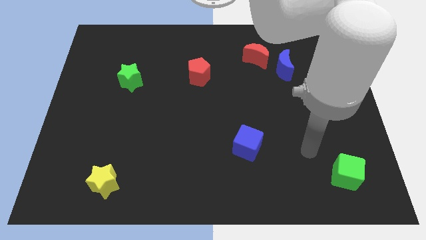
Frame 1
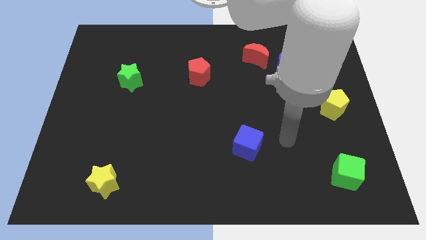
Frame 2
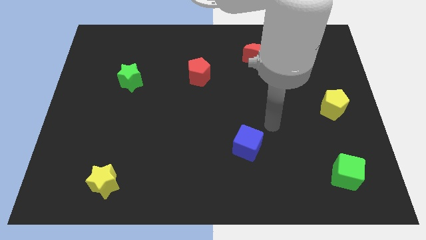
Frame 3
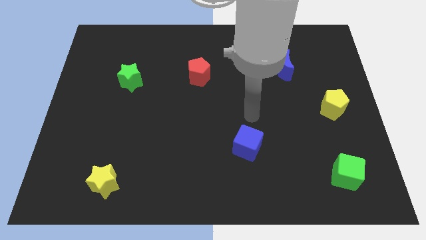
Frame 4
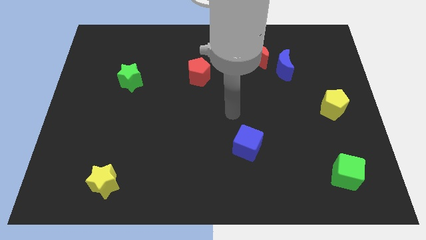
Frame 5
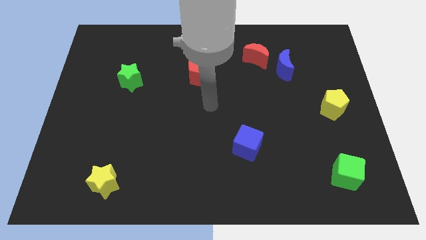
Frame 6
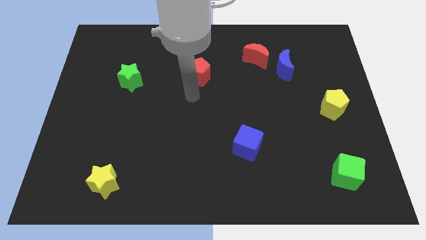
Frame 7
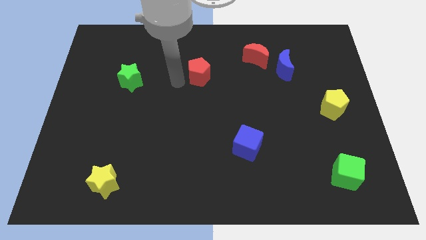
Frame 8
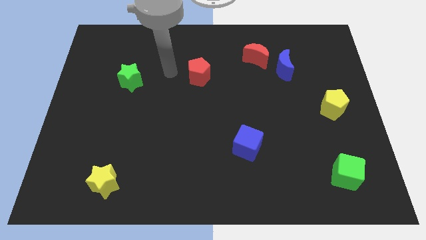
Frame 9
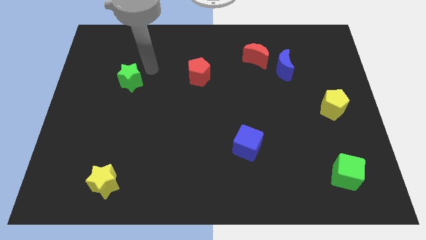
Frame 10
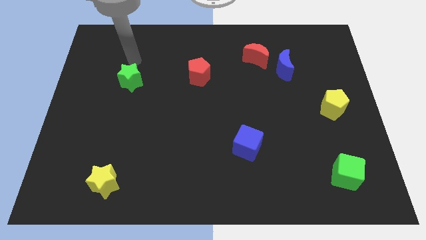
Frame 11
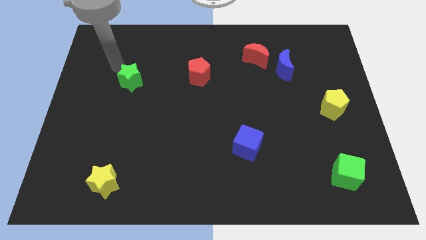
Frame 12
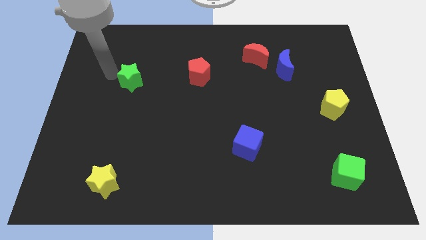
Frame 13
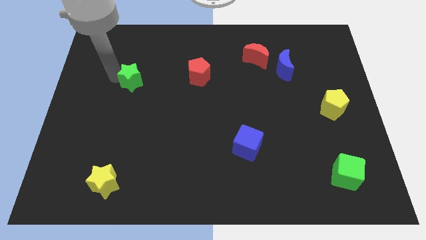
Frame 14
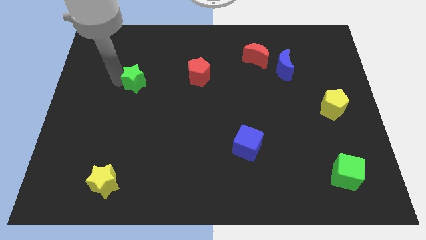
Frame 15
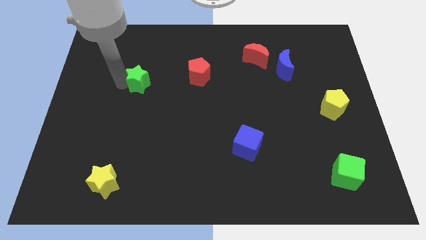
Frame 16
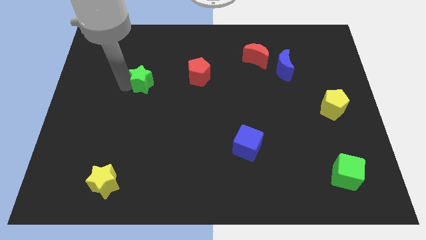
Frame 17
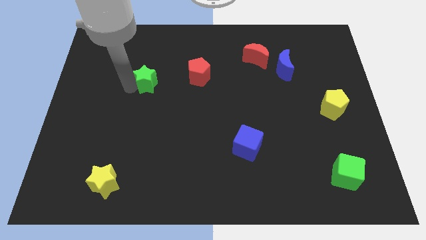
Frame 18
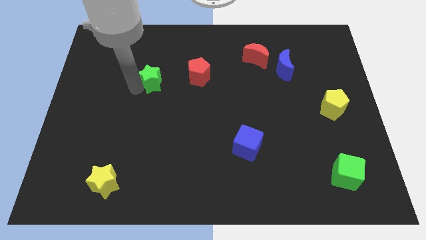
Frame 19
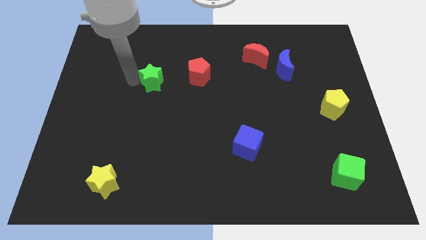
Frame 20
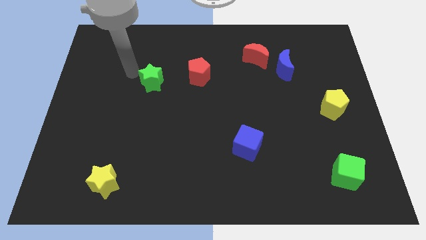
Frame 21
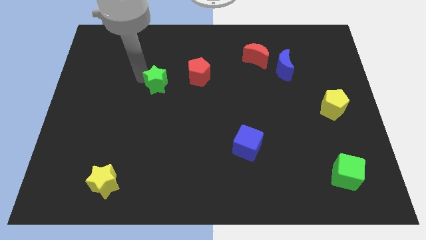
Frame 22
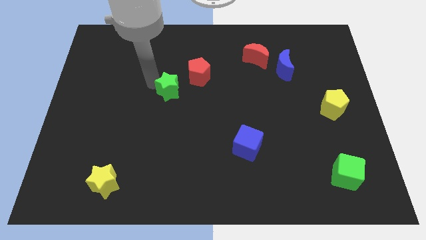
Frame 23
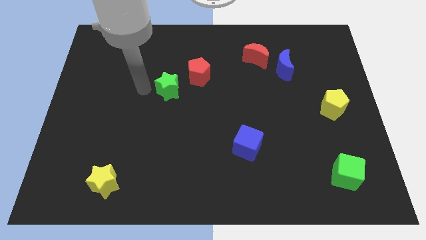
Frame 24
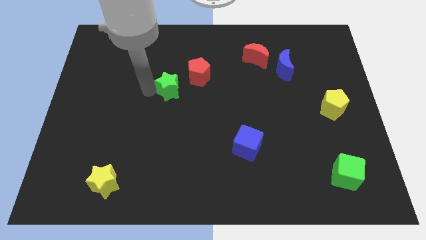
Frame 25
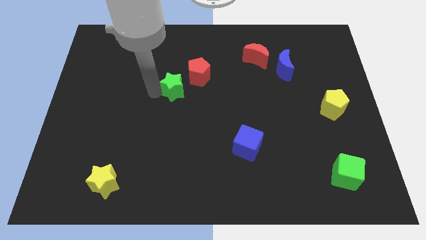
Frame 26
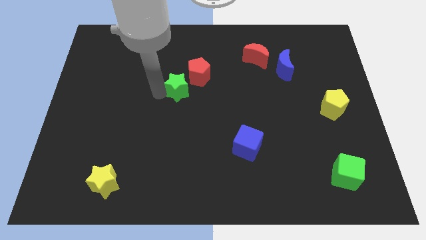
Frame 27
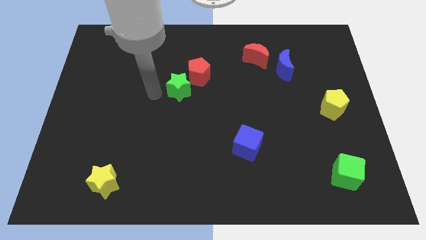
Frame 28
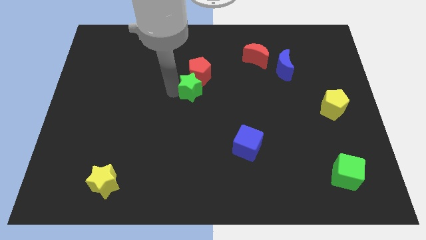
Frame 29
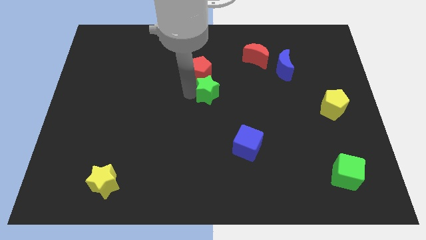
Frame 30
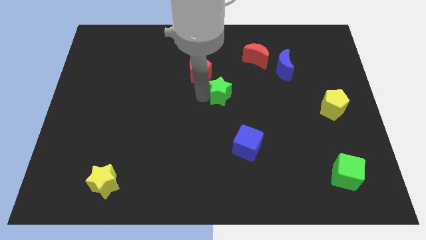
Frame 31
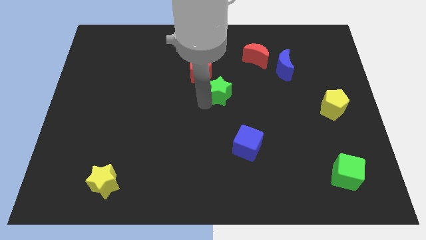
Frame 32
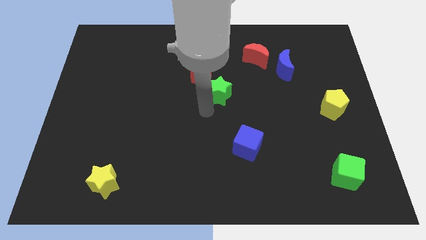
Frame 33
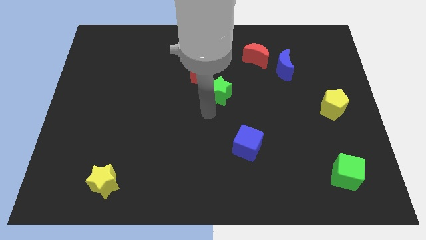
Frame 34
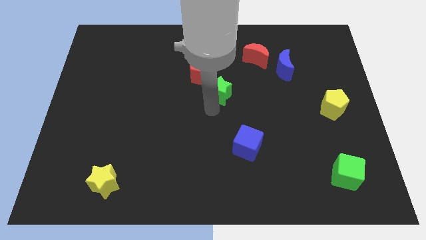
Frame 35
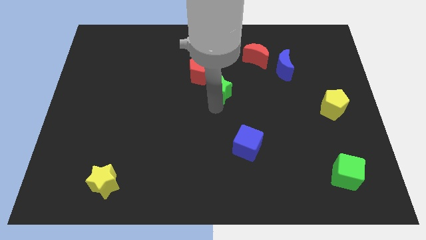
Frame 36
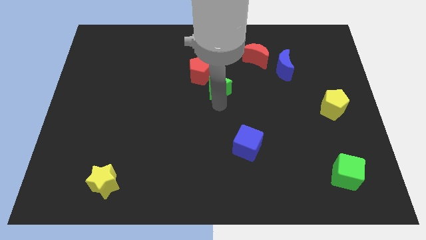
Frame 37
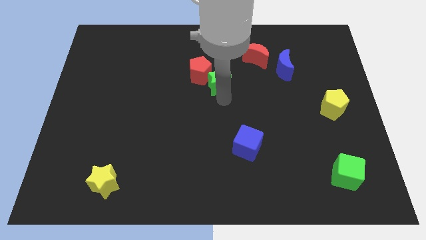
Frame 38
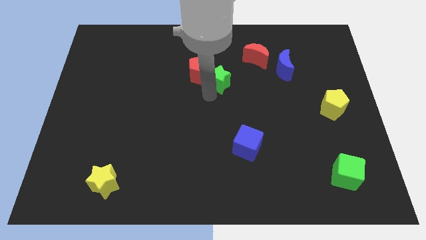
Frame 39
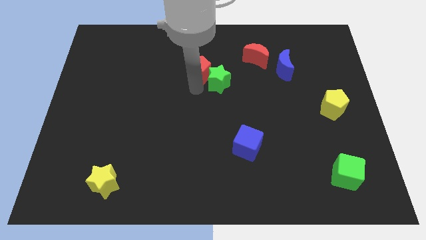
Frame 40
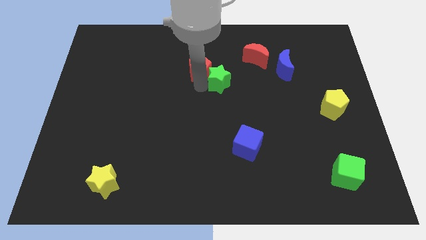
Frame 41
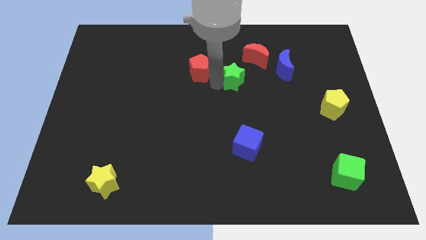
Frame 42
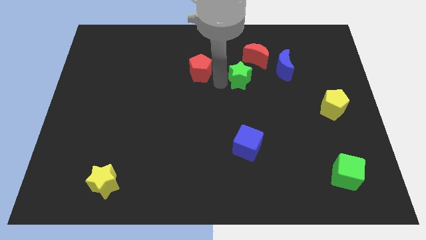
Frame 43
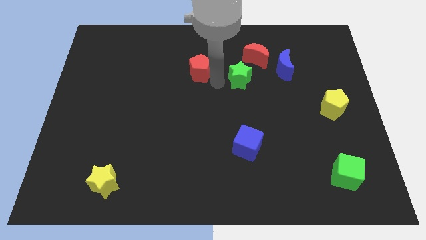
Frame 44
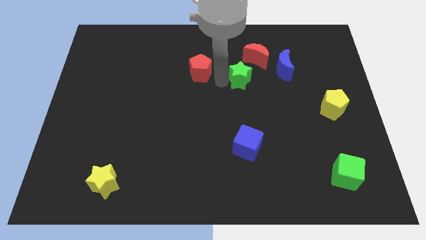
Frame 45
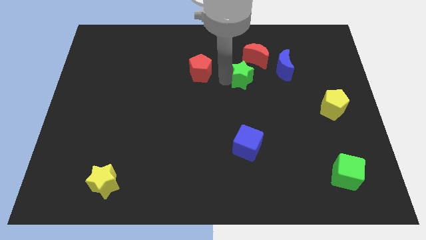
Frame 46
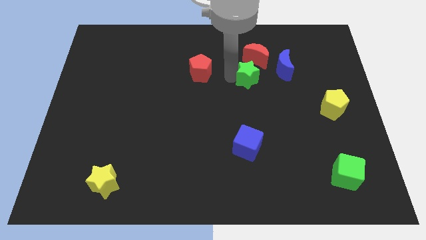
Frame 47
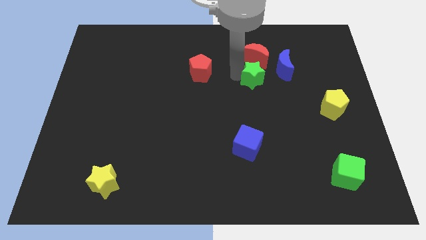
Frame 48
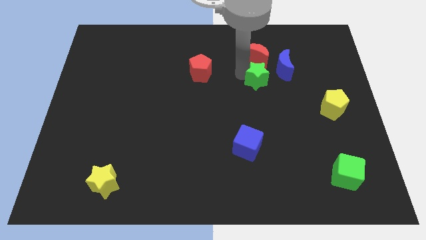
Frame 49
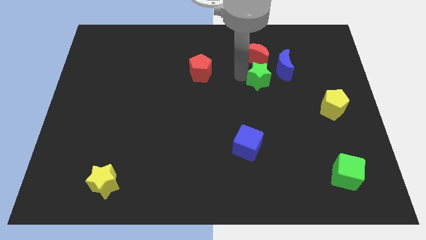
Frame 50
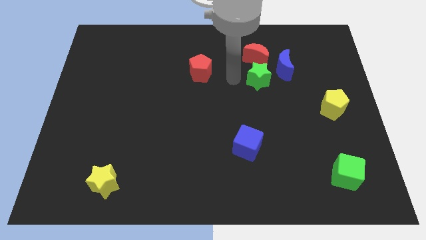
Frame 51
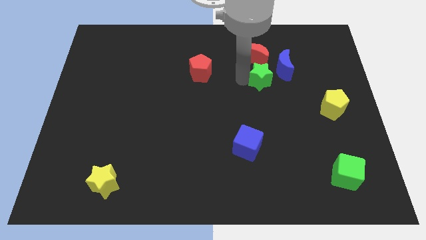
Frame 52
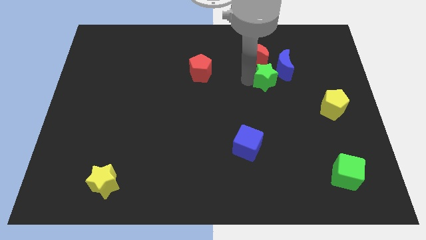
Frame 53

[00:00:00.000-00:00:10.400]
put the green star to the bottom right side of the red moon

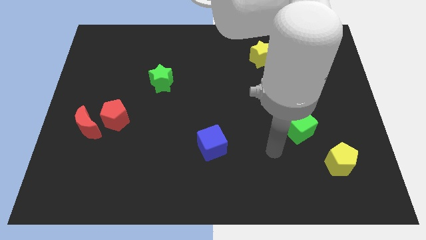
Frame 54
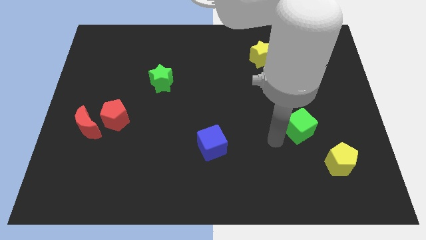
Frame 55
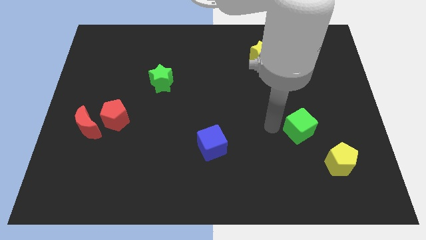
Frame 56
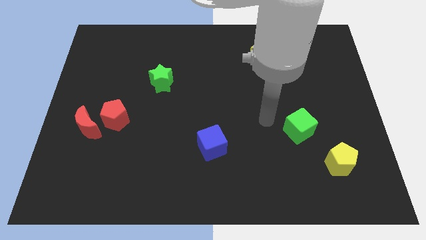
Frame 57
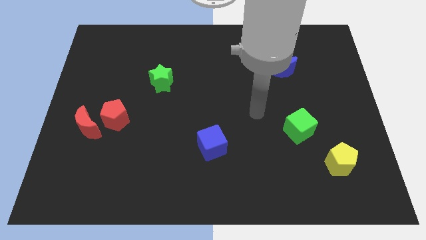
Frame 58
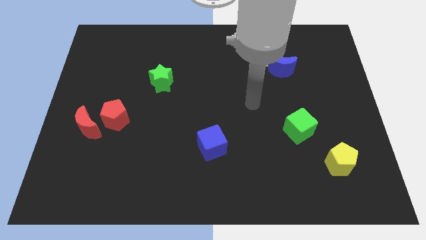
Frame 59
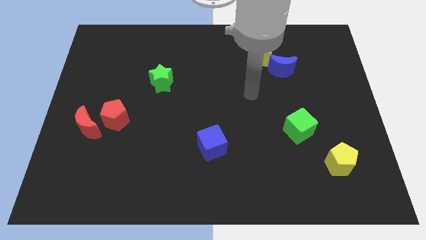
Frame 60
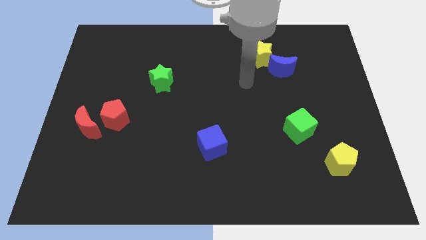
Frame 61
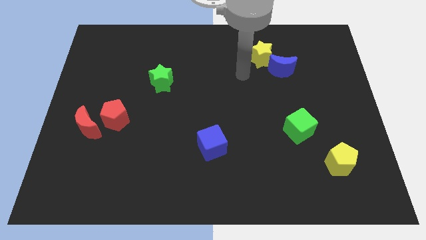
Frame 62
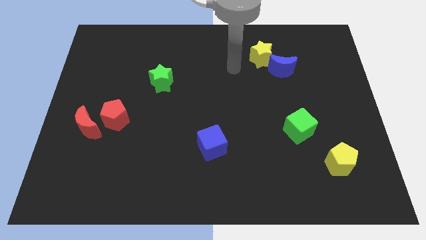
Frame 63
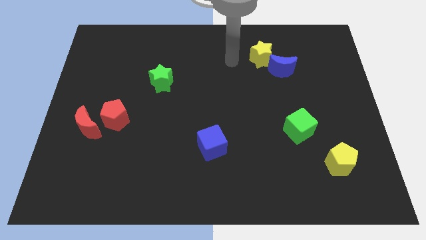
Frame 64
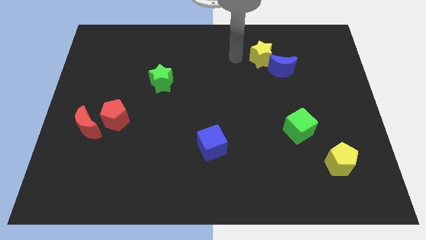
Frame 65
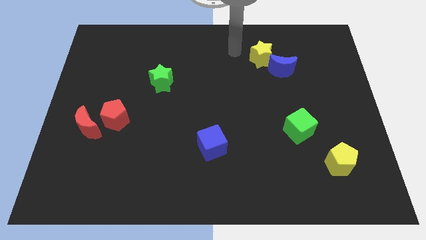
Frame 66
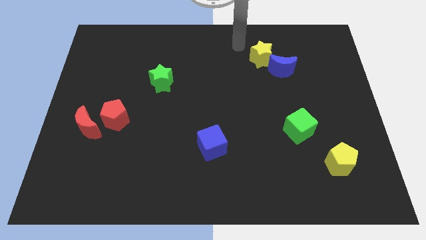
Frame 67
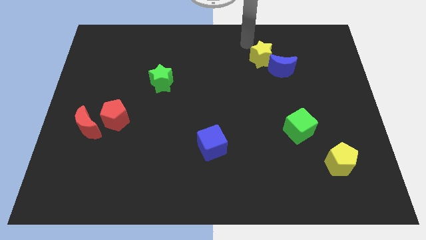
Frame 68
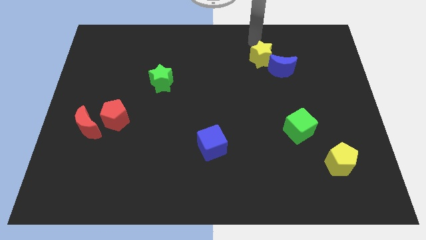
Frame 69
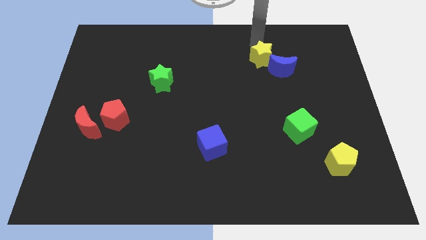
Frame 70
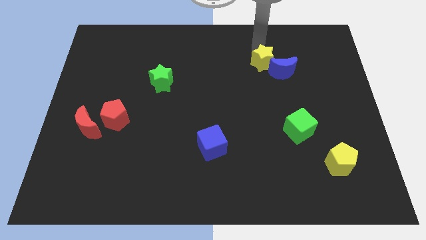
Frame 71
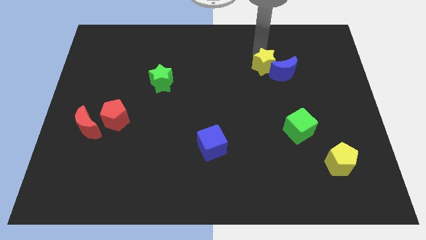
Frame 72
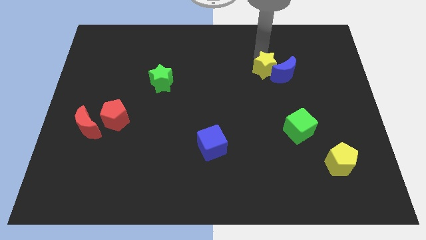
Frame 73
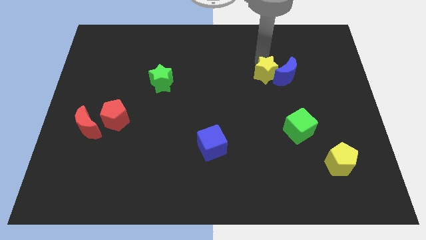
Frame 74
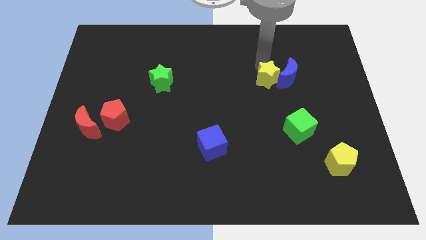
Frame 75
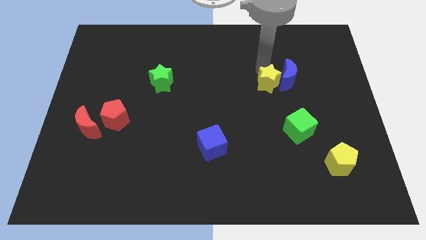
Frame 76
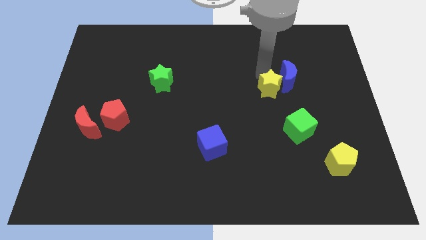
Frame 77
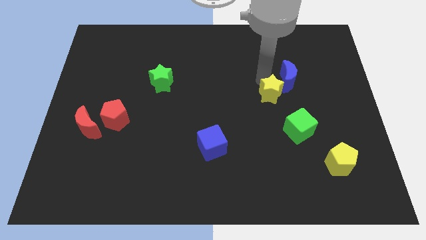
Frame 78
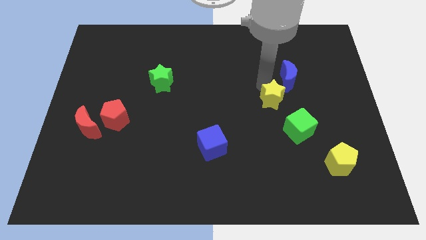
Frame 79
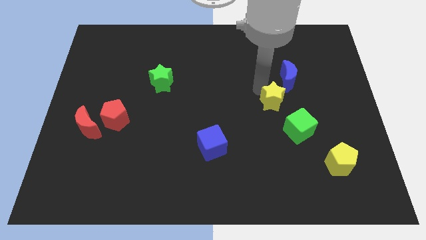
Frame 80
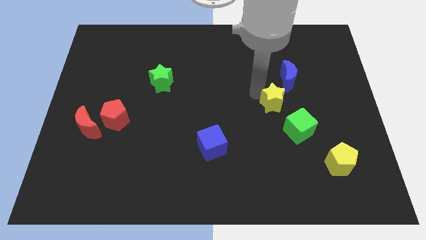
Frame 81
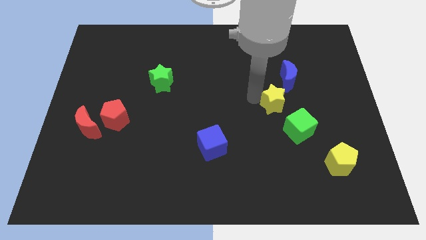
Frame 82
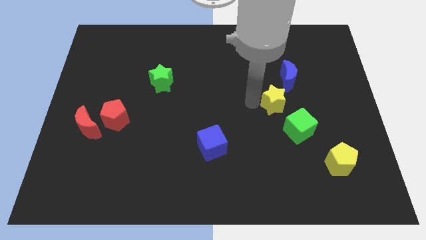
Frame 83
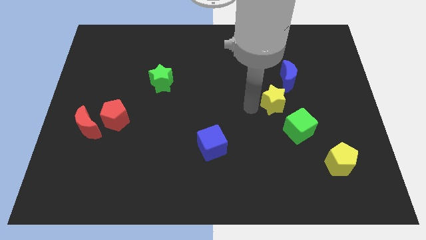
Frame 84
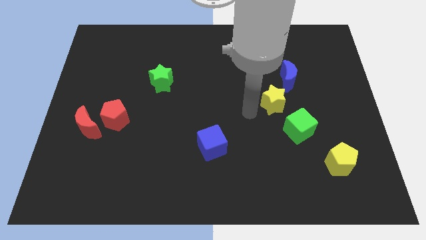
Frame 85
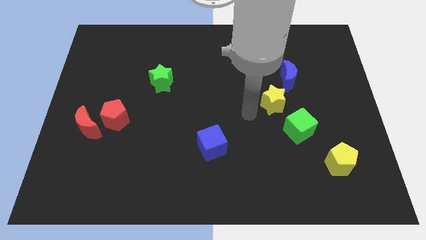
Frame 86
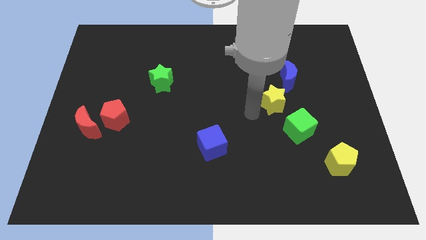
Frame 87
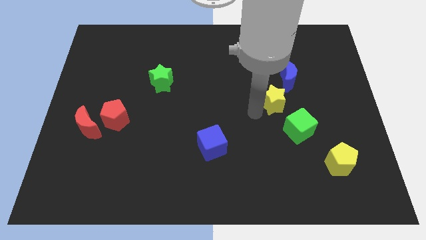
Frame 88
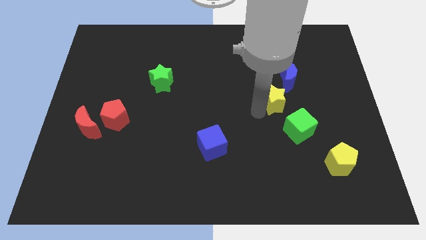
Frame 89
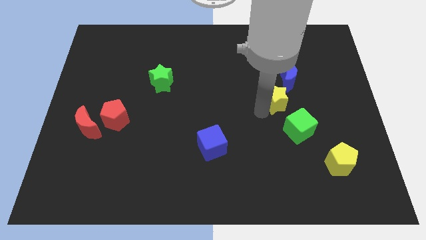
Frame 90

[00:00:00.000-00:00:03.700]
put the yellow star to the top side of the green cube
